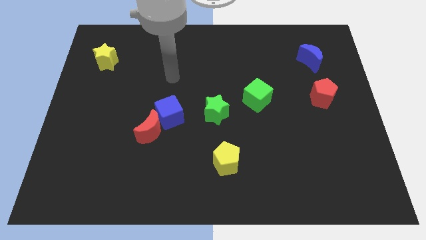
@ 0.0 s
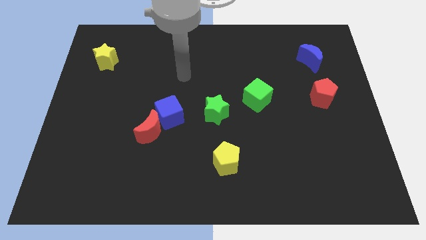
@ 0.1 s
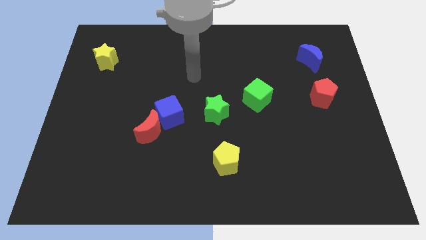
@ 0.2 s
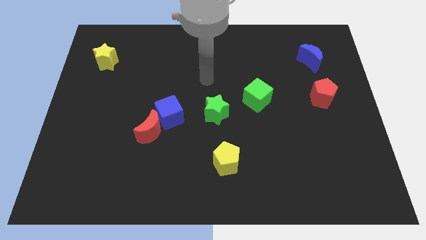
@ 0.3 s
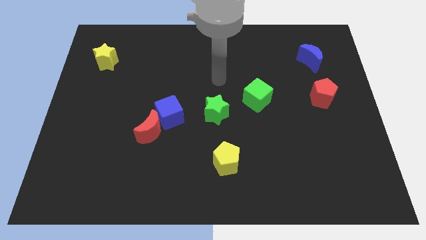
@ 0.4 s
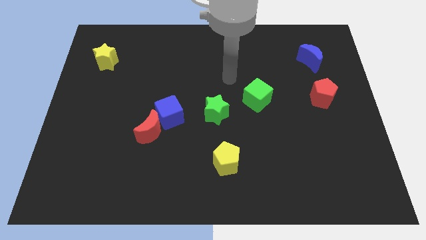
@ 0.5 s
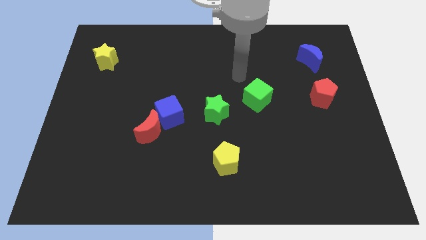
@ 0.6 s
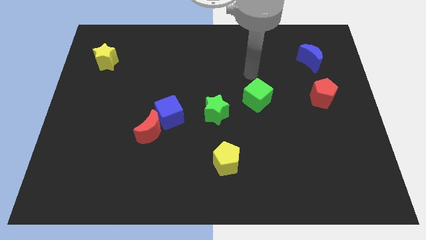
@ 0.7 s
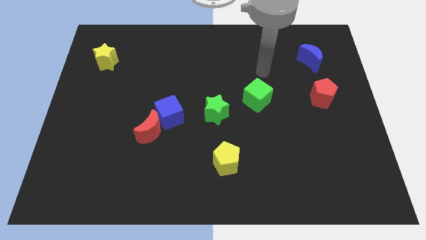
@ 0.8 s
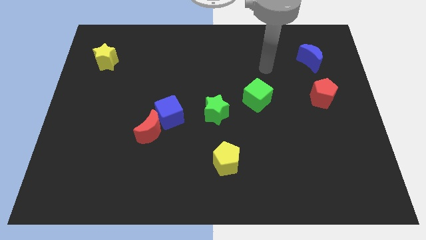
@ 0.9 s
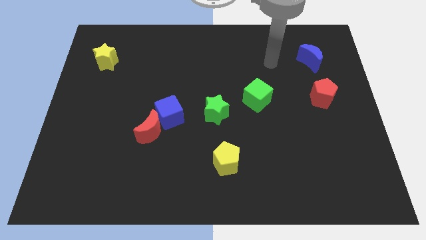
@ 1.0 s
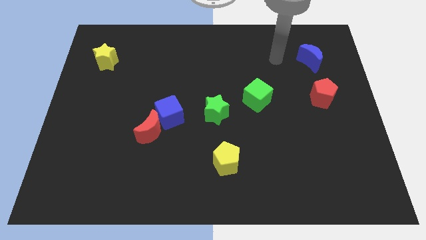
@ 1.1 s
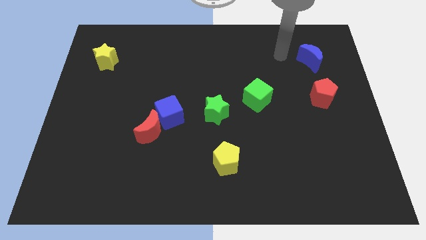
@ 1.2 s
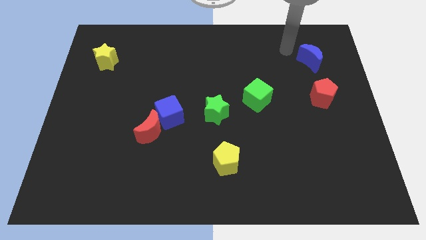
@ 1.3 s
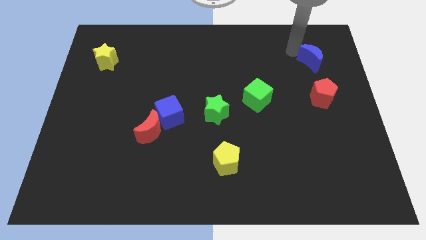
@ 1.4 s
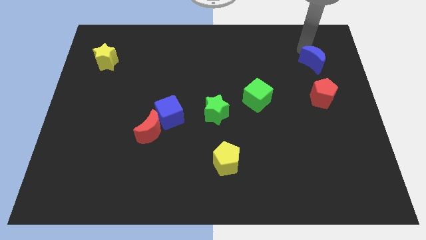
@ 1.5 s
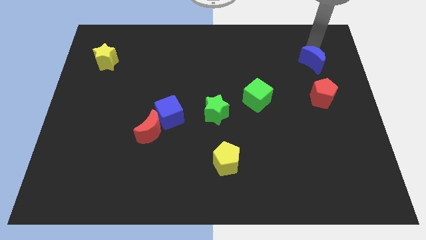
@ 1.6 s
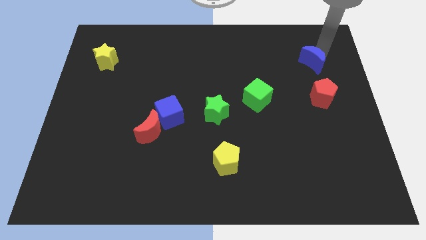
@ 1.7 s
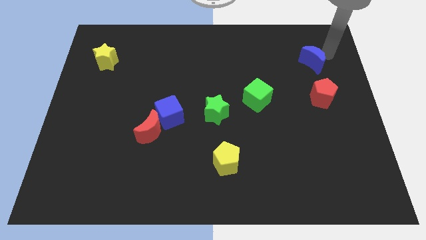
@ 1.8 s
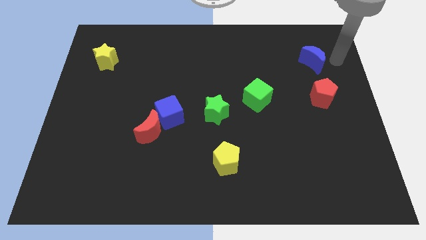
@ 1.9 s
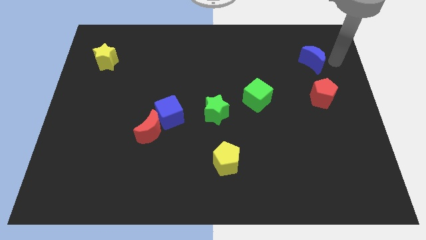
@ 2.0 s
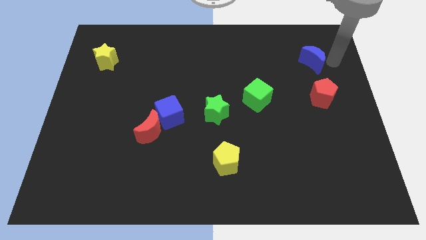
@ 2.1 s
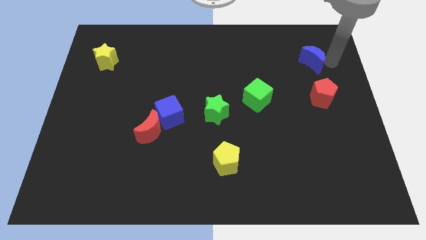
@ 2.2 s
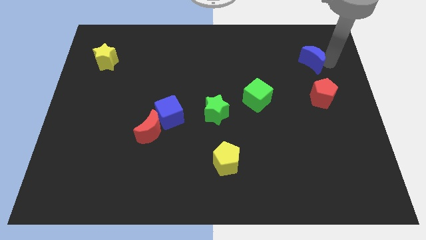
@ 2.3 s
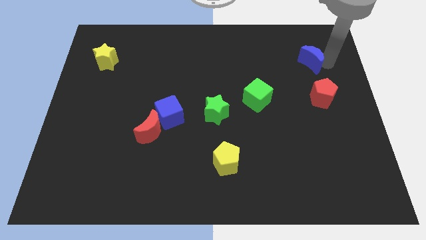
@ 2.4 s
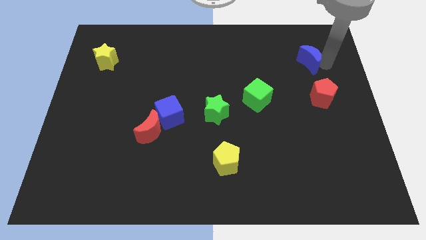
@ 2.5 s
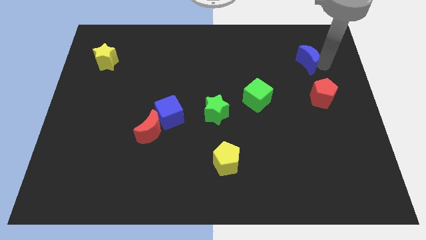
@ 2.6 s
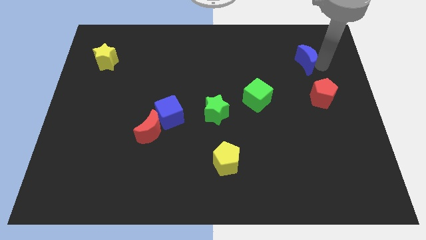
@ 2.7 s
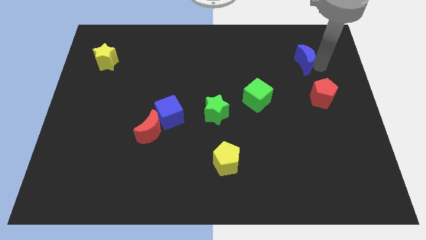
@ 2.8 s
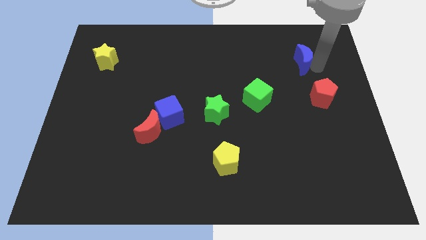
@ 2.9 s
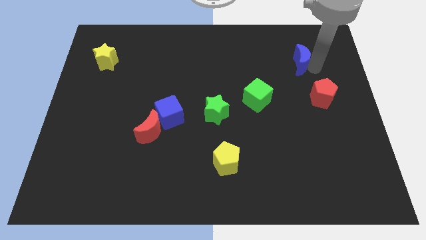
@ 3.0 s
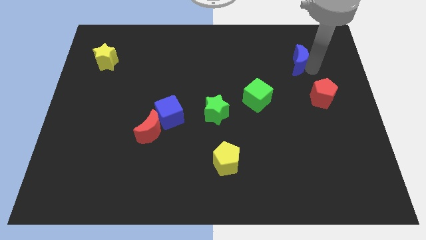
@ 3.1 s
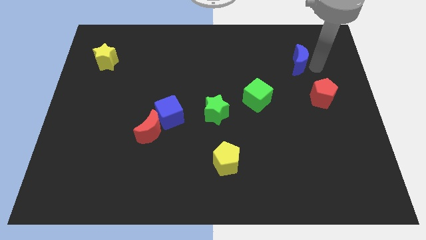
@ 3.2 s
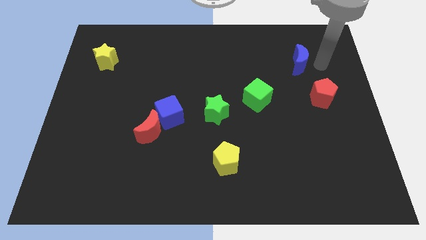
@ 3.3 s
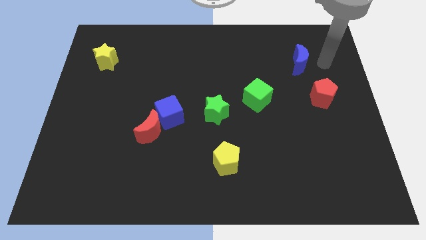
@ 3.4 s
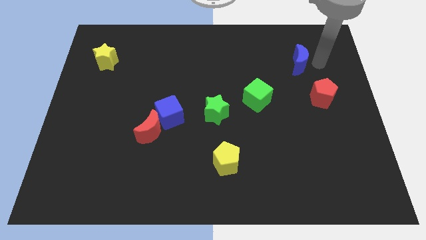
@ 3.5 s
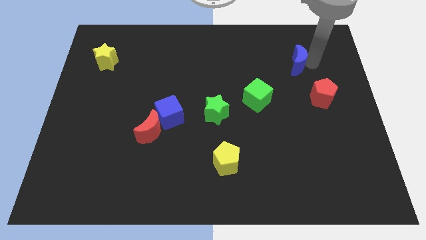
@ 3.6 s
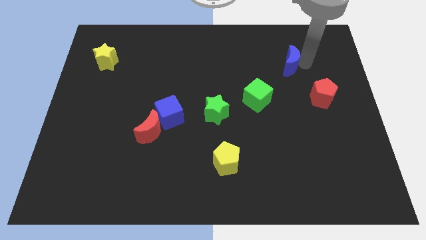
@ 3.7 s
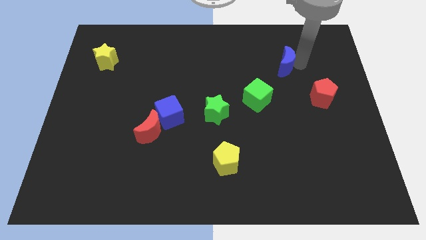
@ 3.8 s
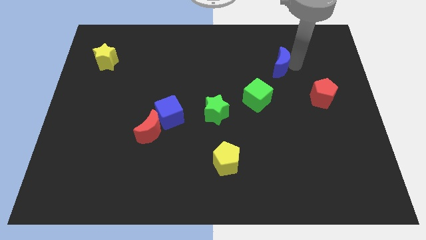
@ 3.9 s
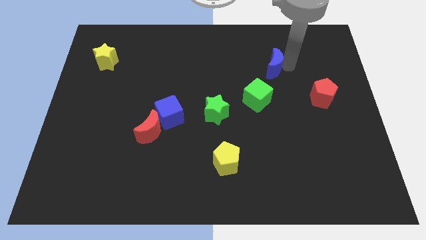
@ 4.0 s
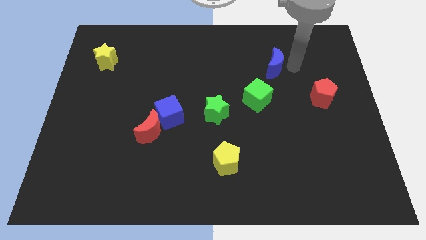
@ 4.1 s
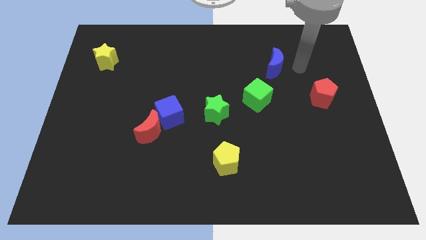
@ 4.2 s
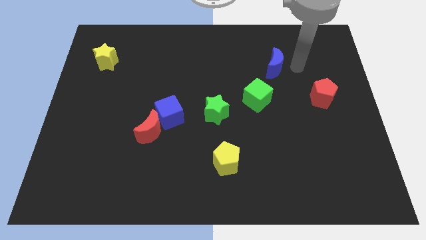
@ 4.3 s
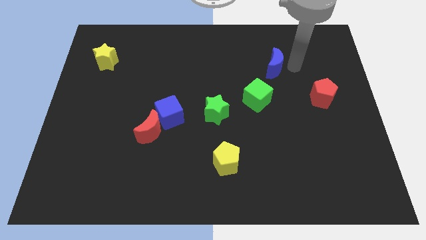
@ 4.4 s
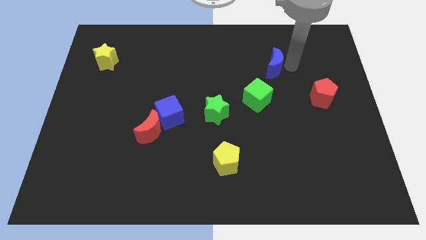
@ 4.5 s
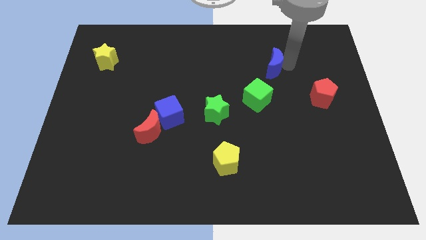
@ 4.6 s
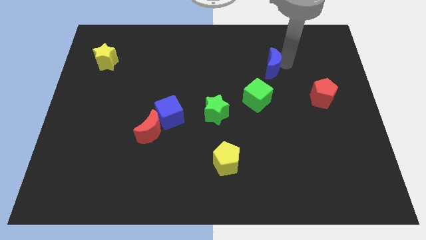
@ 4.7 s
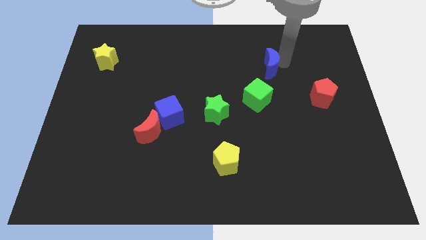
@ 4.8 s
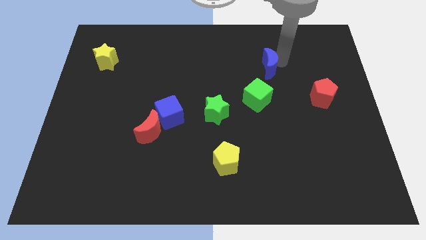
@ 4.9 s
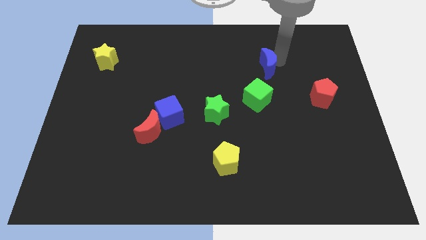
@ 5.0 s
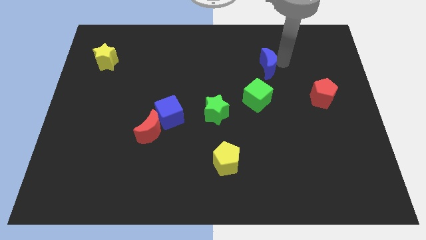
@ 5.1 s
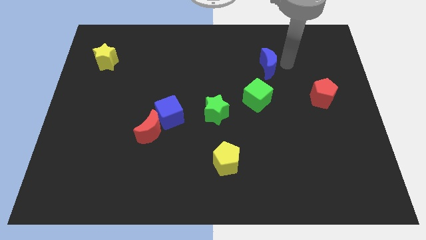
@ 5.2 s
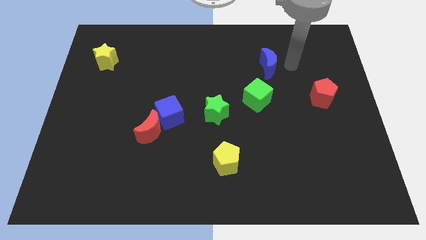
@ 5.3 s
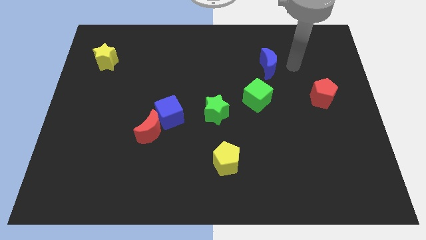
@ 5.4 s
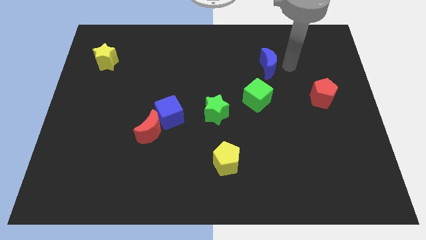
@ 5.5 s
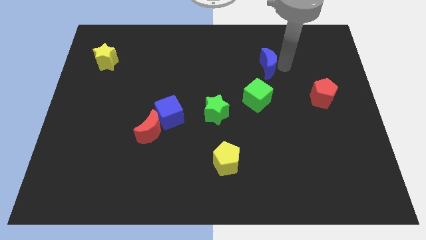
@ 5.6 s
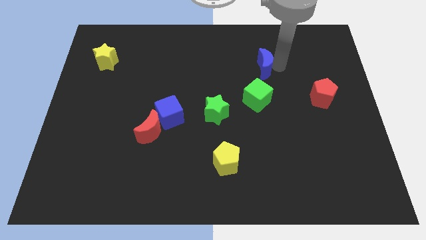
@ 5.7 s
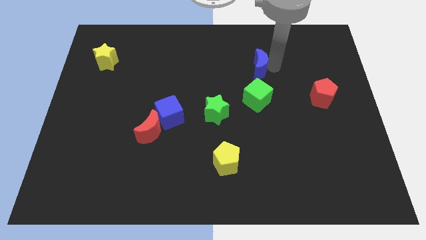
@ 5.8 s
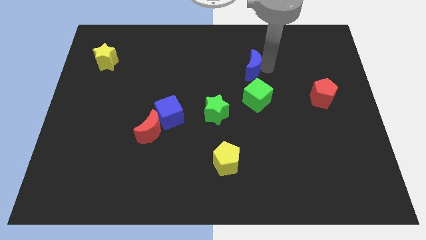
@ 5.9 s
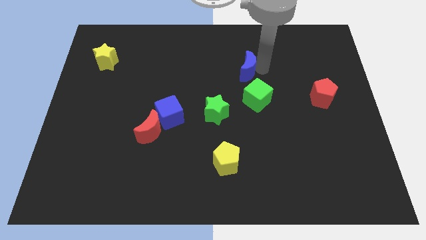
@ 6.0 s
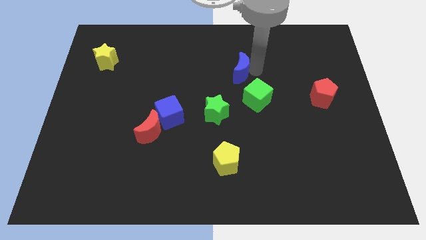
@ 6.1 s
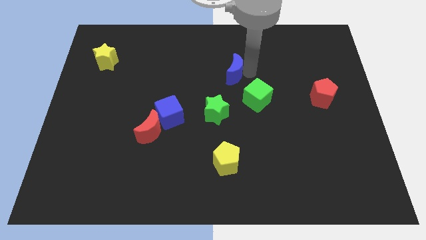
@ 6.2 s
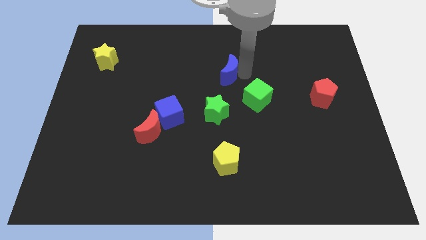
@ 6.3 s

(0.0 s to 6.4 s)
push the blue moon left

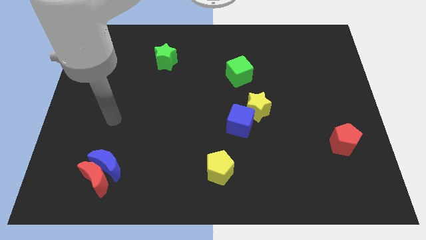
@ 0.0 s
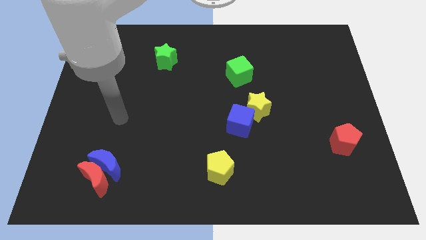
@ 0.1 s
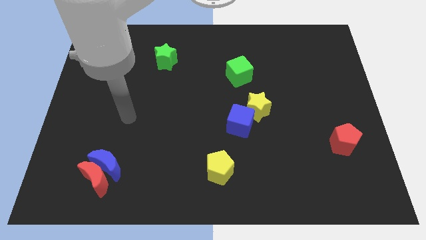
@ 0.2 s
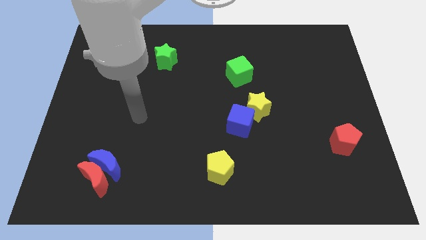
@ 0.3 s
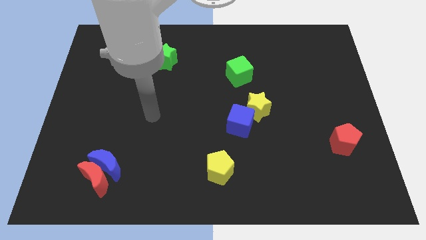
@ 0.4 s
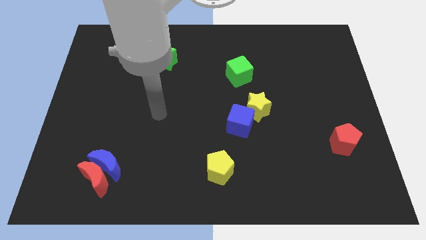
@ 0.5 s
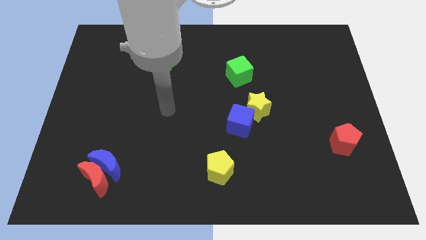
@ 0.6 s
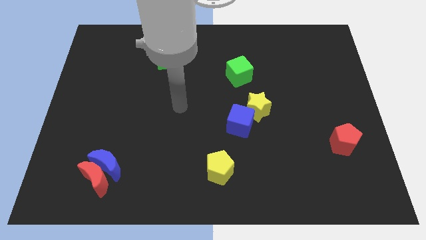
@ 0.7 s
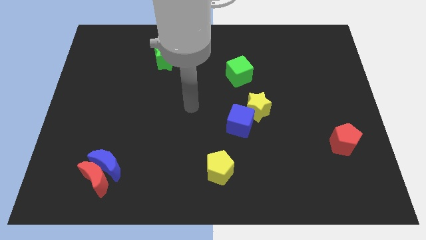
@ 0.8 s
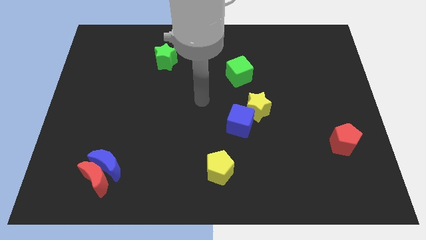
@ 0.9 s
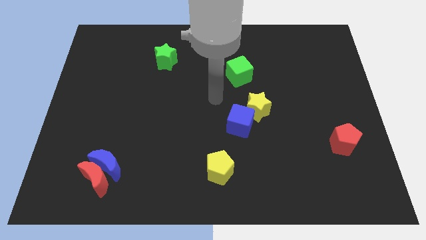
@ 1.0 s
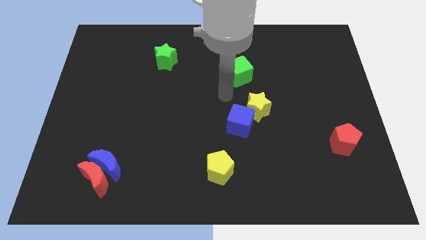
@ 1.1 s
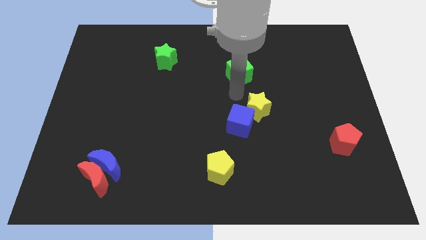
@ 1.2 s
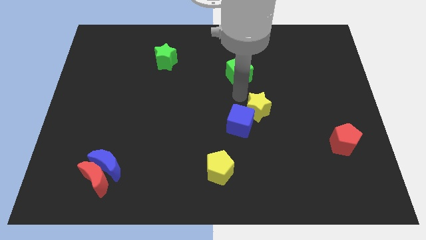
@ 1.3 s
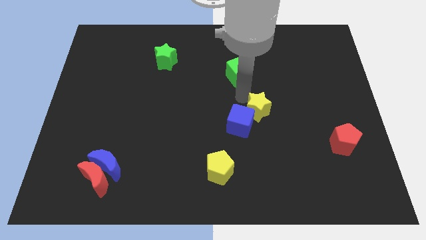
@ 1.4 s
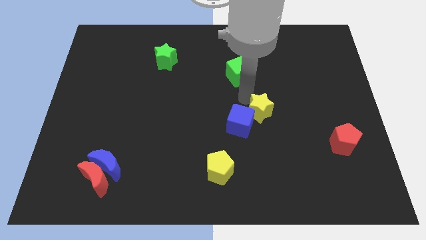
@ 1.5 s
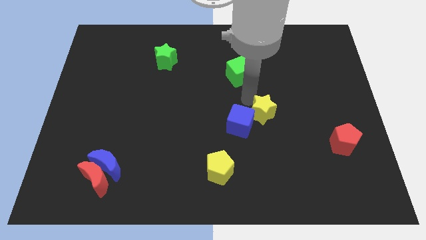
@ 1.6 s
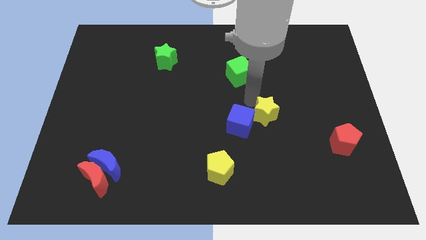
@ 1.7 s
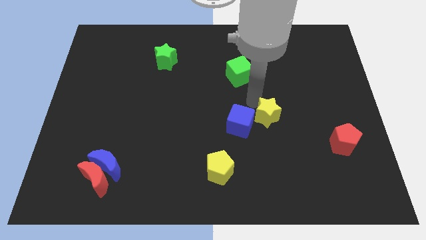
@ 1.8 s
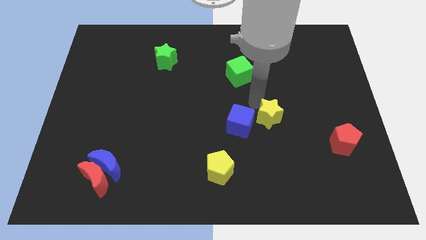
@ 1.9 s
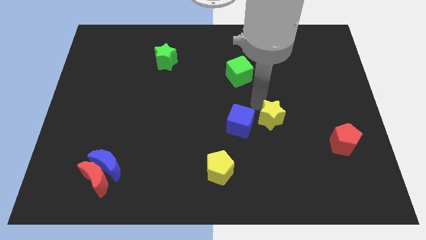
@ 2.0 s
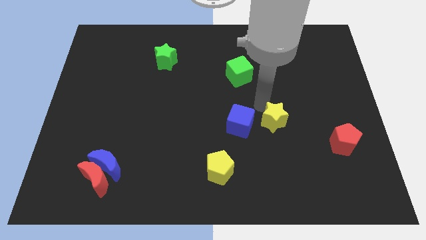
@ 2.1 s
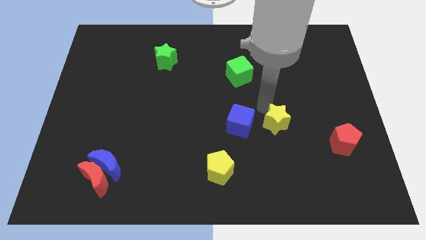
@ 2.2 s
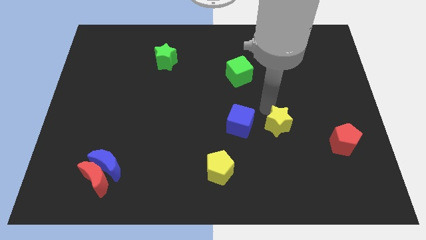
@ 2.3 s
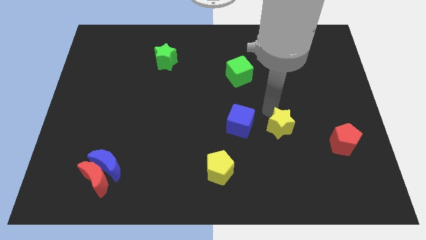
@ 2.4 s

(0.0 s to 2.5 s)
slightly push the yellow star down and to the right diagonally
